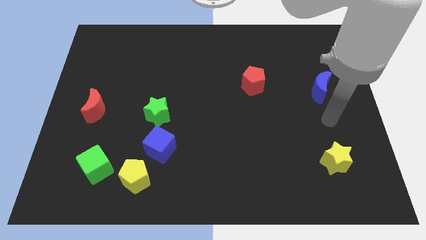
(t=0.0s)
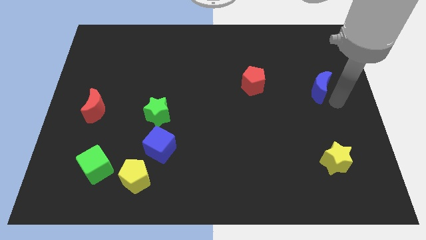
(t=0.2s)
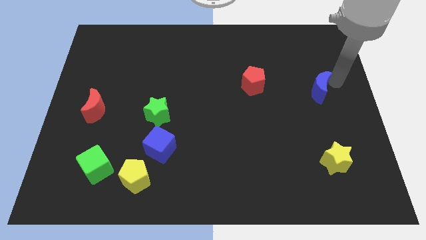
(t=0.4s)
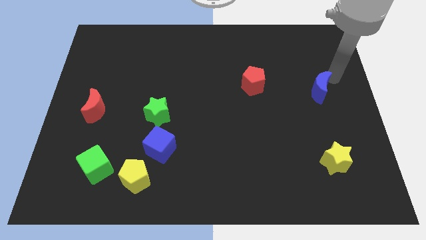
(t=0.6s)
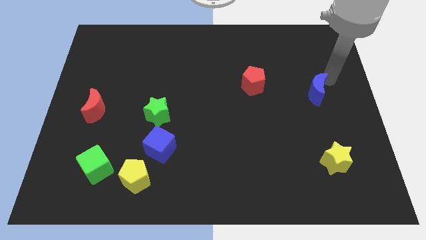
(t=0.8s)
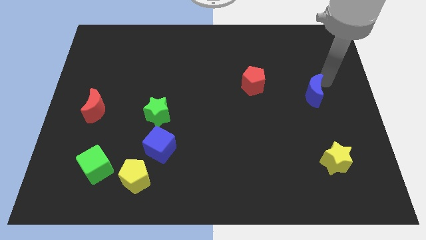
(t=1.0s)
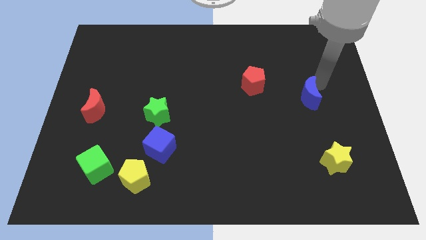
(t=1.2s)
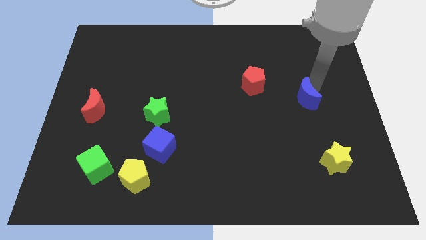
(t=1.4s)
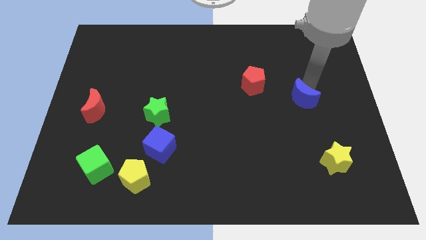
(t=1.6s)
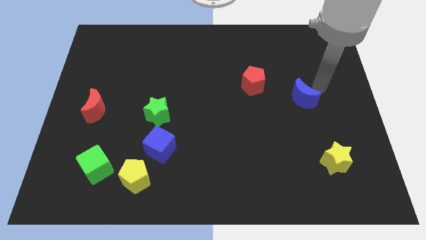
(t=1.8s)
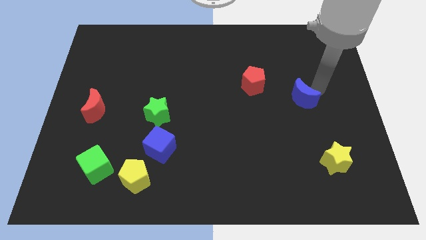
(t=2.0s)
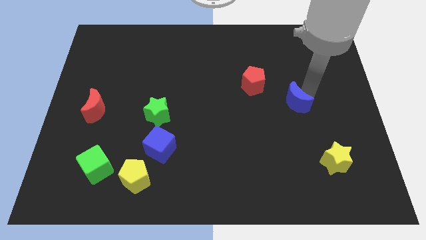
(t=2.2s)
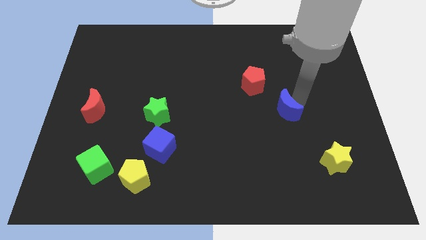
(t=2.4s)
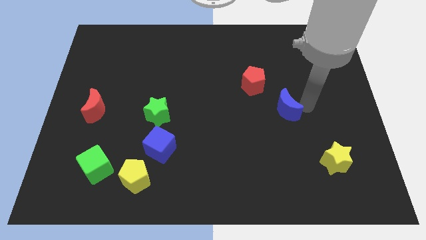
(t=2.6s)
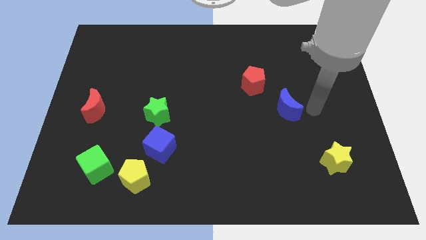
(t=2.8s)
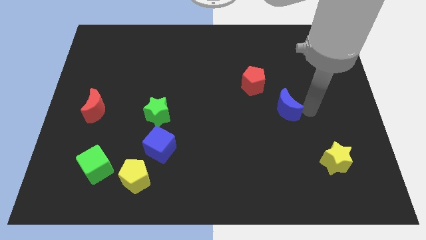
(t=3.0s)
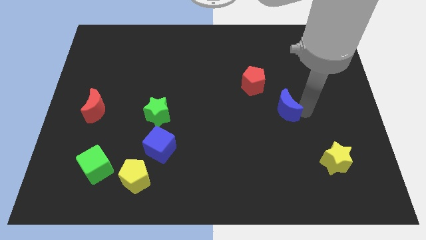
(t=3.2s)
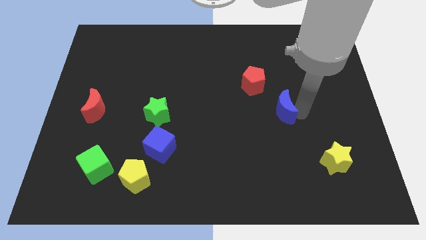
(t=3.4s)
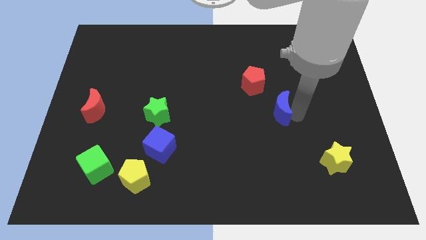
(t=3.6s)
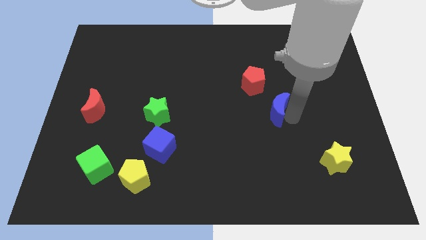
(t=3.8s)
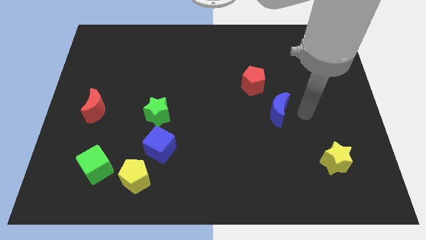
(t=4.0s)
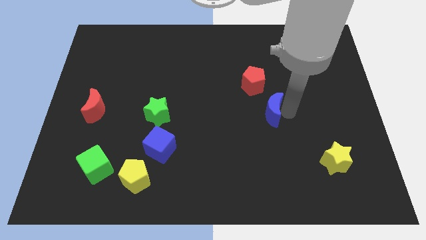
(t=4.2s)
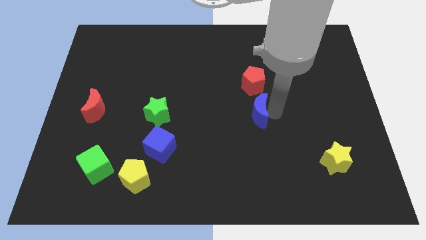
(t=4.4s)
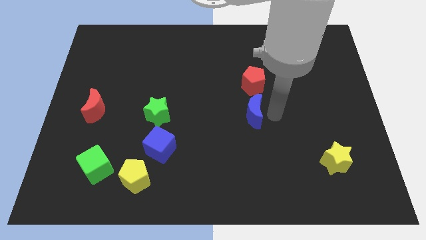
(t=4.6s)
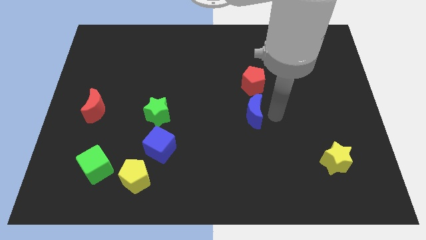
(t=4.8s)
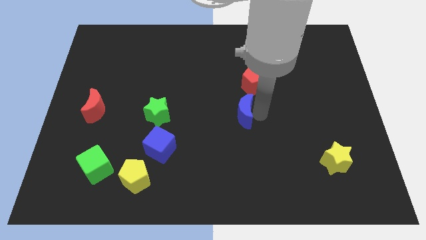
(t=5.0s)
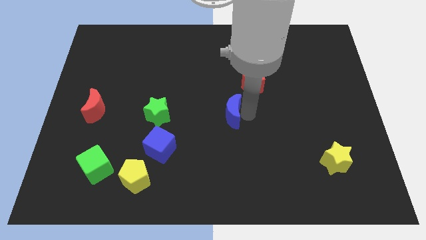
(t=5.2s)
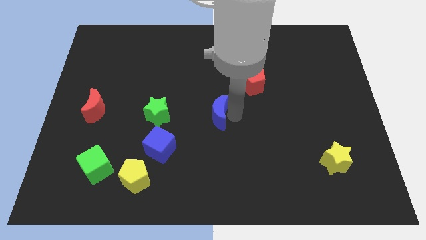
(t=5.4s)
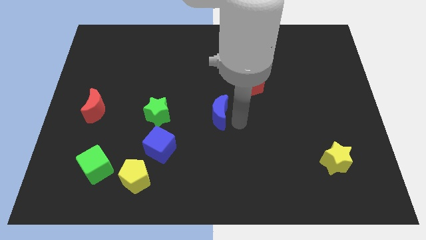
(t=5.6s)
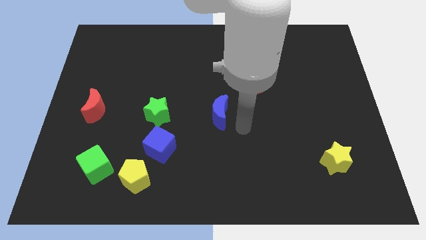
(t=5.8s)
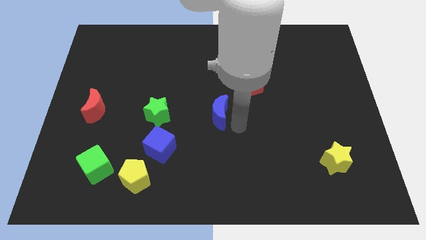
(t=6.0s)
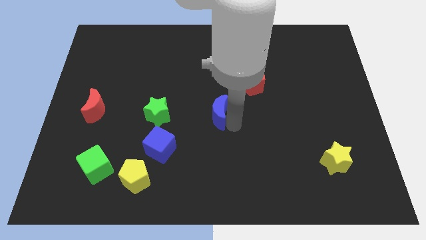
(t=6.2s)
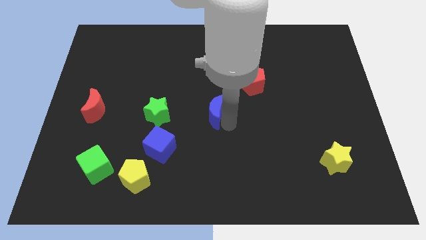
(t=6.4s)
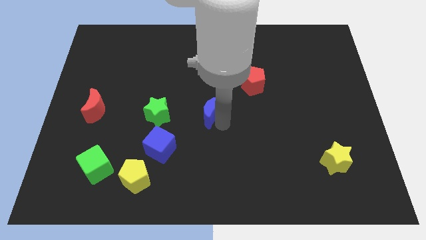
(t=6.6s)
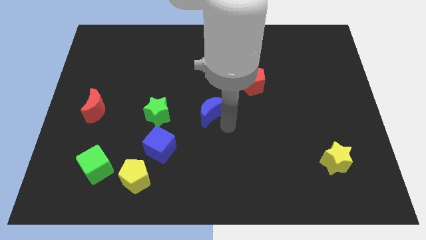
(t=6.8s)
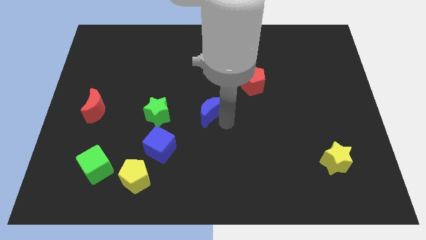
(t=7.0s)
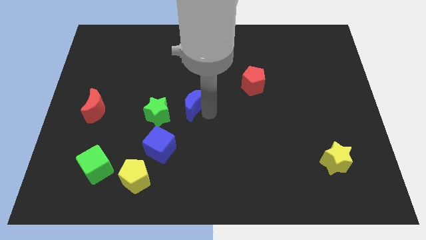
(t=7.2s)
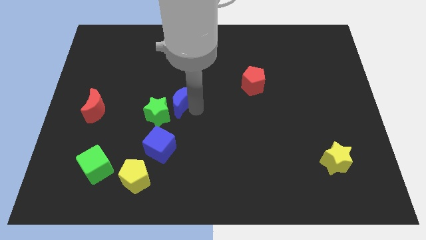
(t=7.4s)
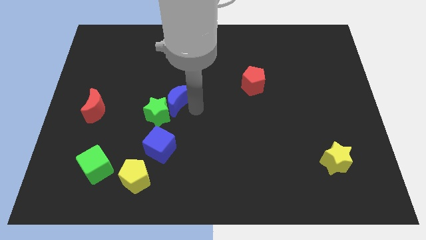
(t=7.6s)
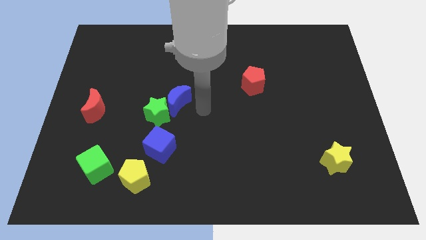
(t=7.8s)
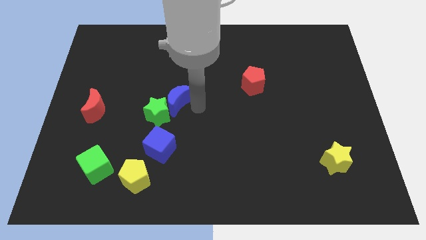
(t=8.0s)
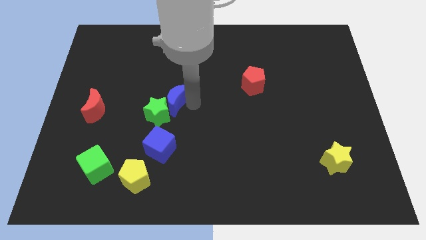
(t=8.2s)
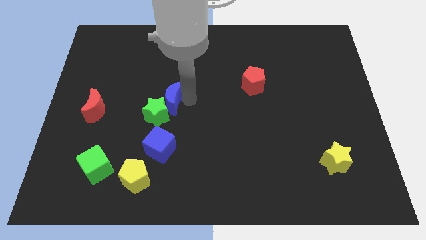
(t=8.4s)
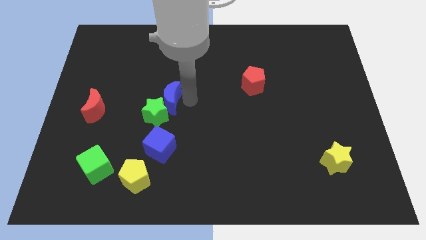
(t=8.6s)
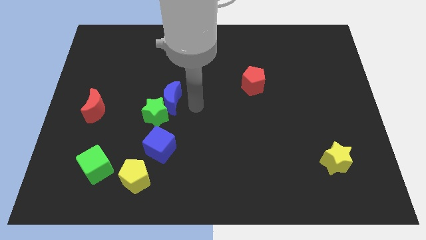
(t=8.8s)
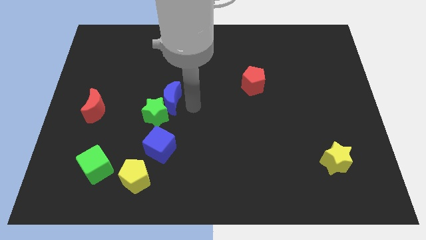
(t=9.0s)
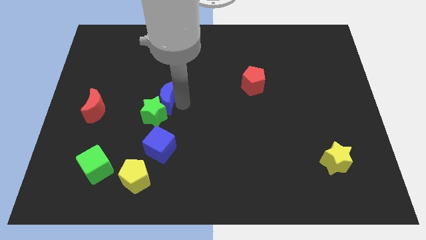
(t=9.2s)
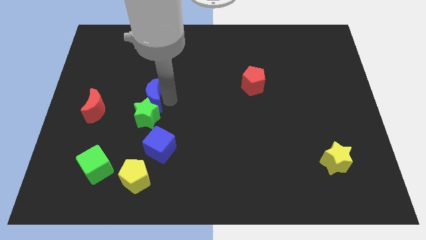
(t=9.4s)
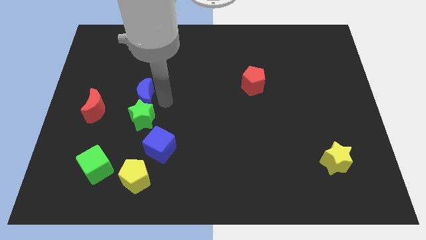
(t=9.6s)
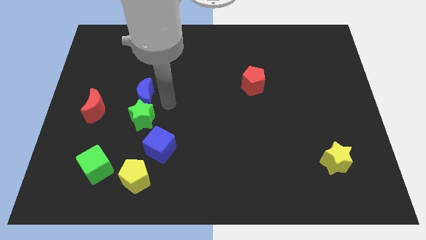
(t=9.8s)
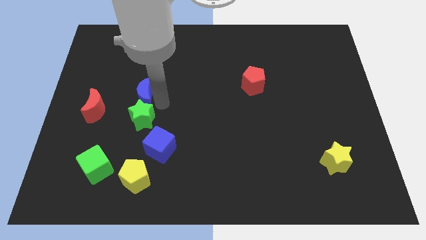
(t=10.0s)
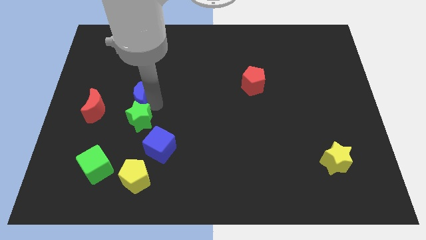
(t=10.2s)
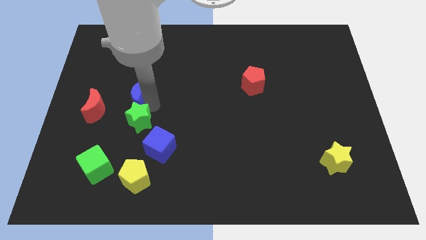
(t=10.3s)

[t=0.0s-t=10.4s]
slide the blue moon diagonally up and to the right of the red moon

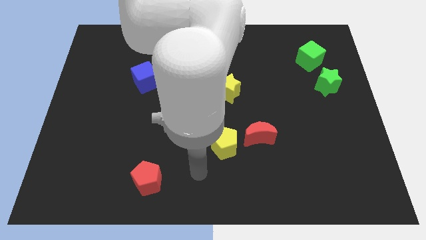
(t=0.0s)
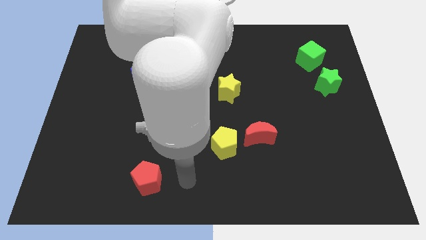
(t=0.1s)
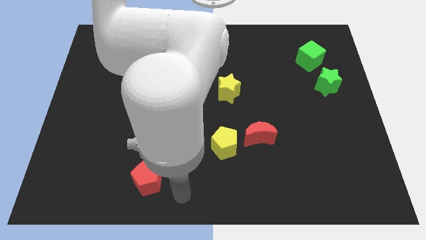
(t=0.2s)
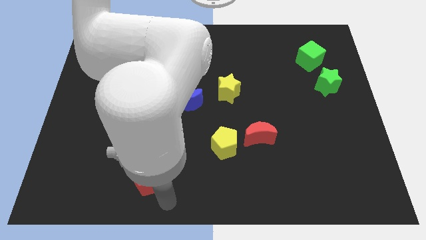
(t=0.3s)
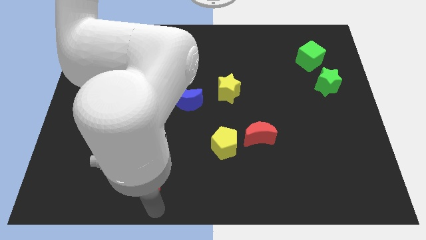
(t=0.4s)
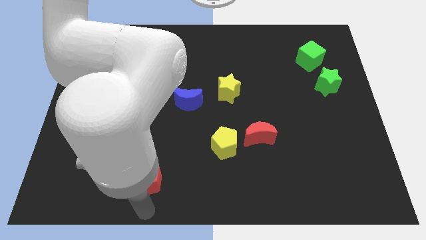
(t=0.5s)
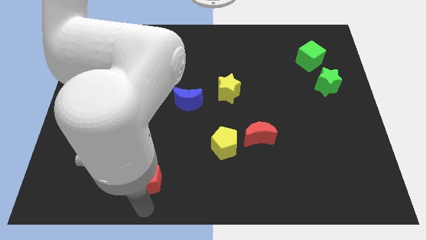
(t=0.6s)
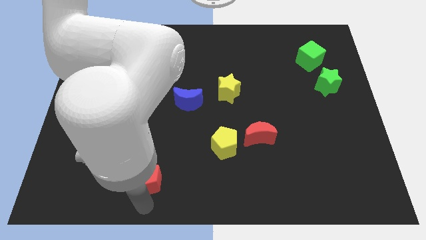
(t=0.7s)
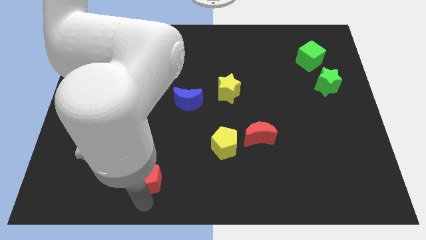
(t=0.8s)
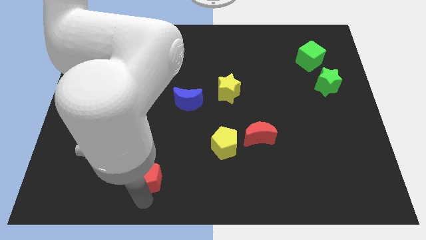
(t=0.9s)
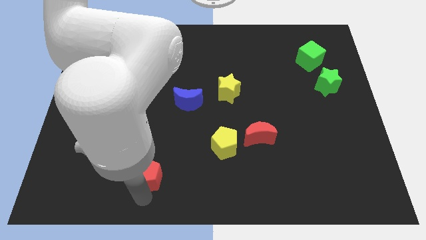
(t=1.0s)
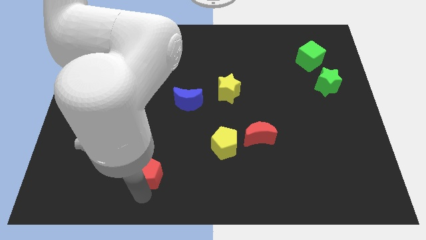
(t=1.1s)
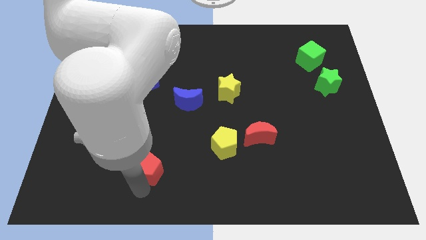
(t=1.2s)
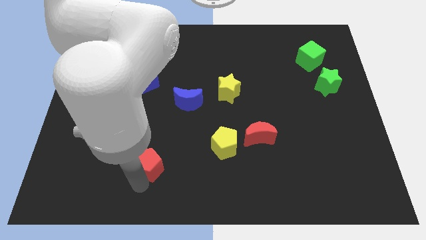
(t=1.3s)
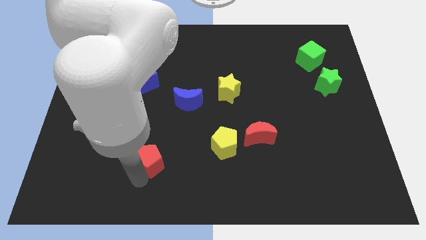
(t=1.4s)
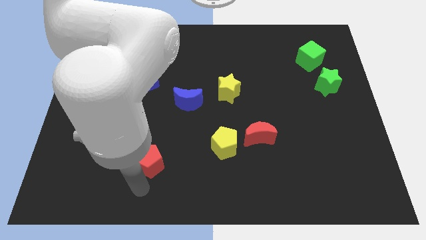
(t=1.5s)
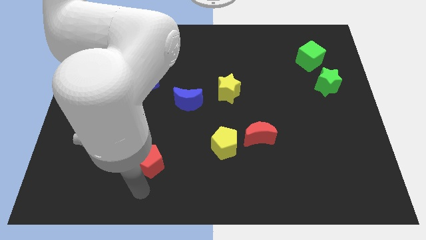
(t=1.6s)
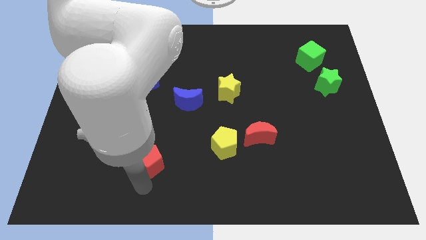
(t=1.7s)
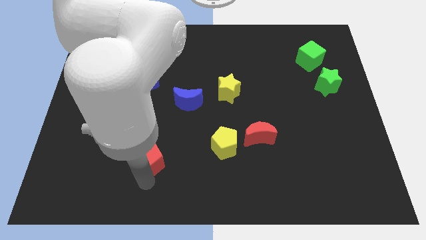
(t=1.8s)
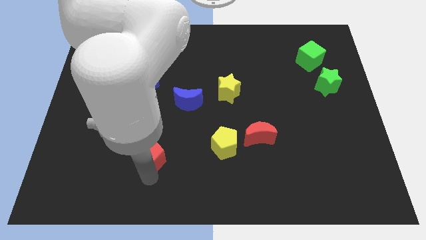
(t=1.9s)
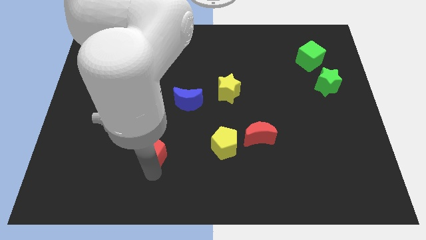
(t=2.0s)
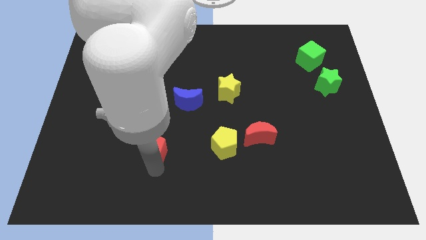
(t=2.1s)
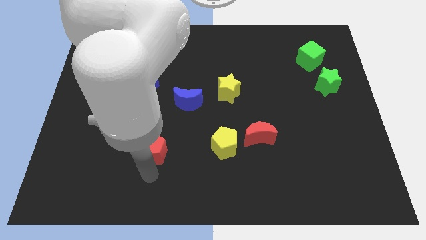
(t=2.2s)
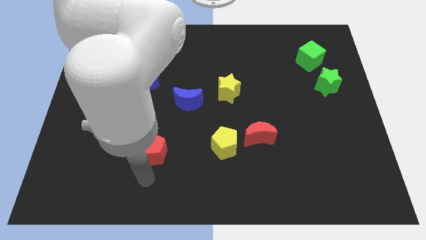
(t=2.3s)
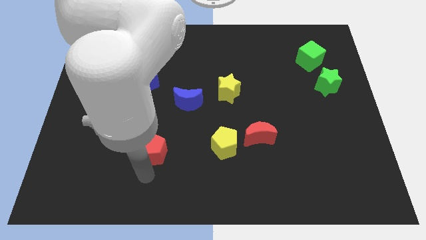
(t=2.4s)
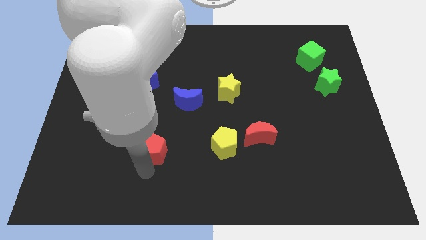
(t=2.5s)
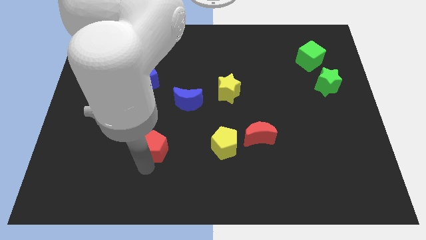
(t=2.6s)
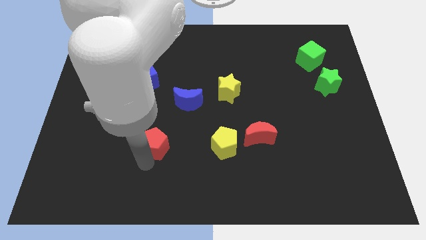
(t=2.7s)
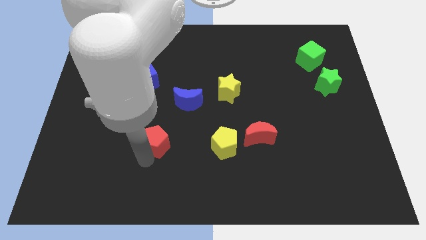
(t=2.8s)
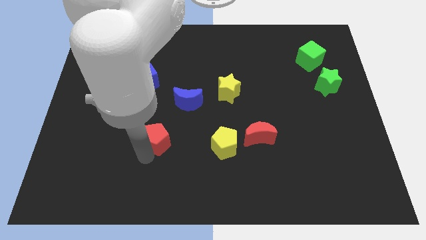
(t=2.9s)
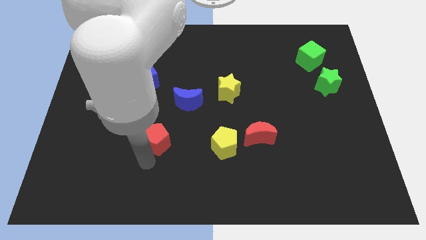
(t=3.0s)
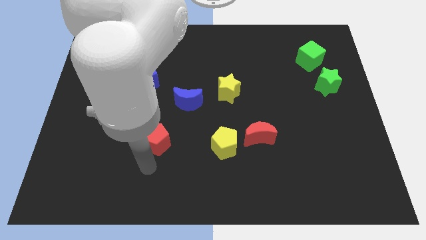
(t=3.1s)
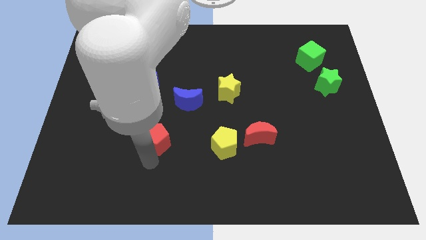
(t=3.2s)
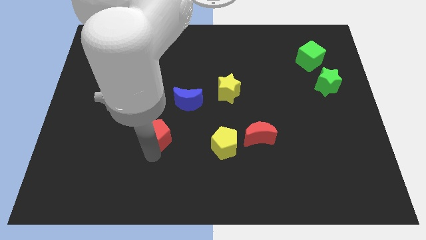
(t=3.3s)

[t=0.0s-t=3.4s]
put the red pentagon diagonally down and to the left of the blue moon
